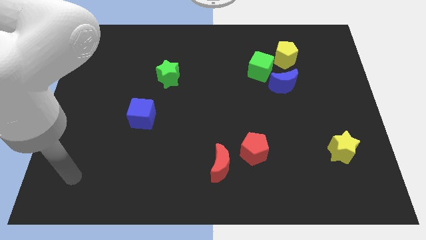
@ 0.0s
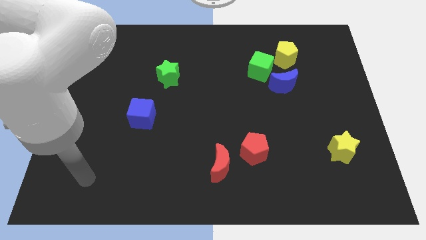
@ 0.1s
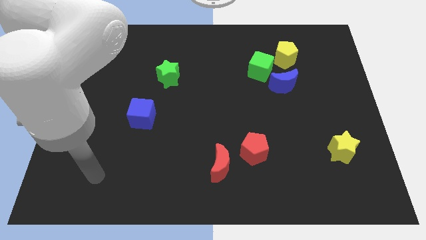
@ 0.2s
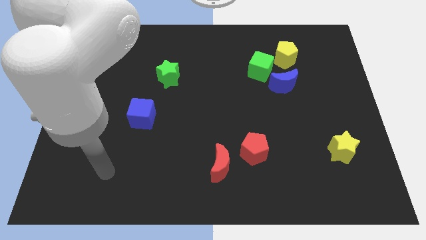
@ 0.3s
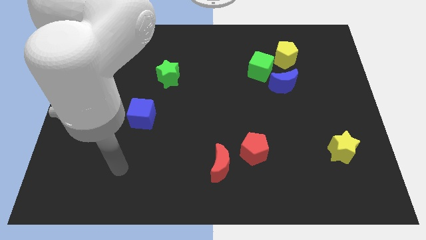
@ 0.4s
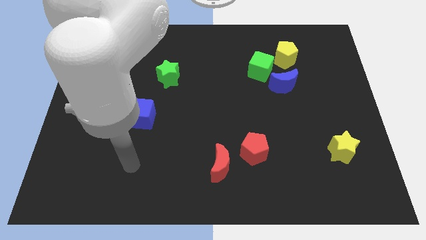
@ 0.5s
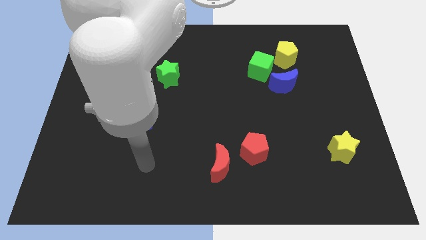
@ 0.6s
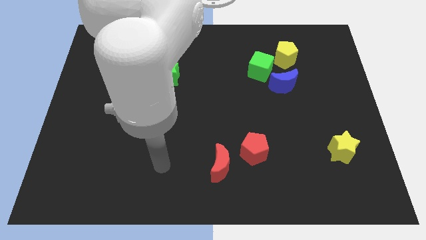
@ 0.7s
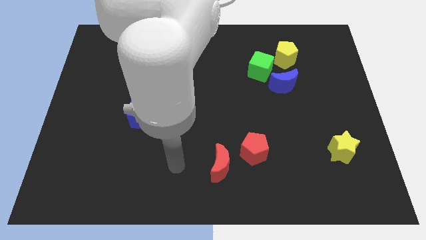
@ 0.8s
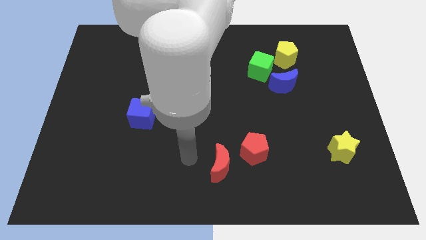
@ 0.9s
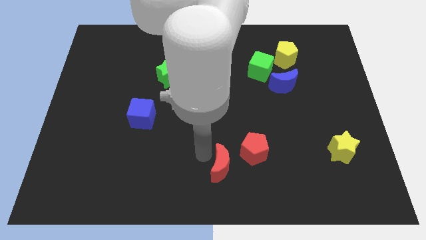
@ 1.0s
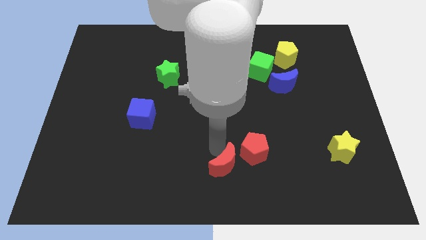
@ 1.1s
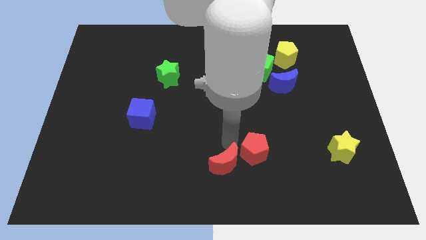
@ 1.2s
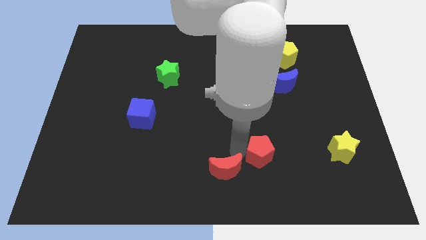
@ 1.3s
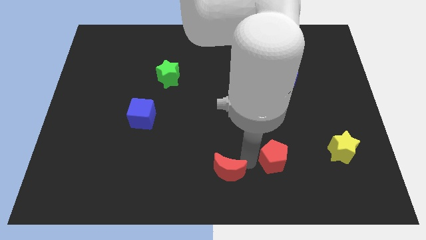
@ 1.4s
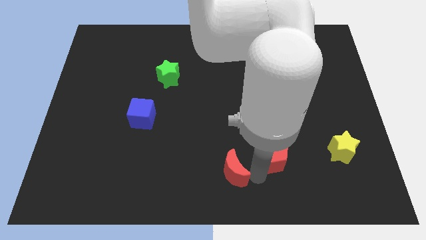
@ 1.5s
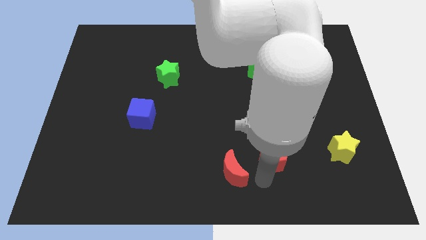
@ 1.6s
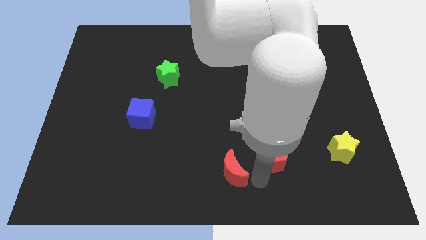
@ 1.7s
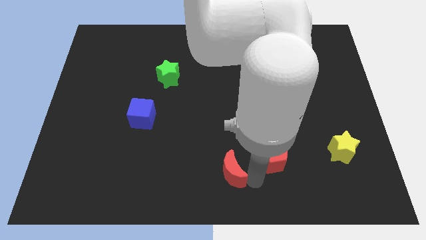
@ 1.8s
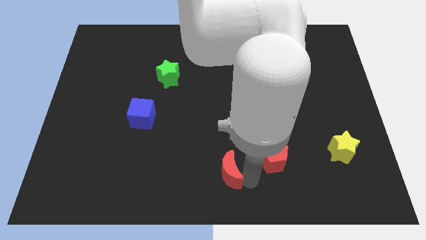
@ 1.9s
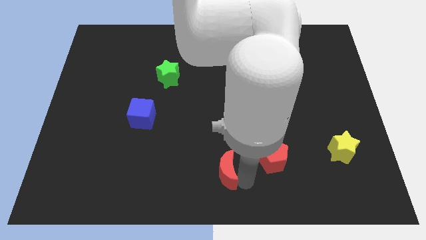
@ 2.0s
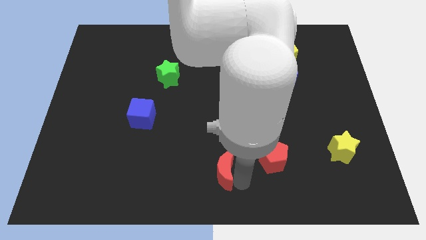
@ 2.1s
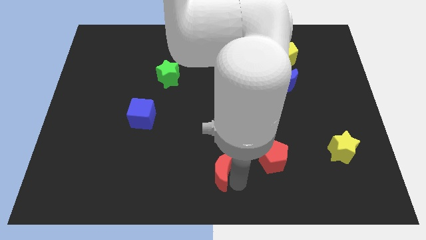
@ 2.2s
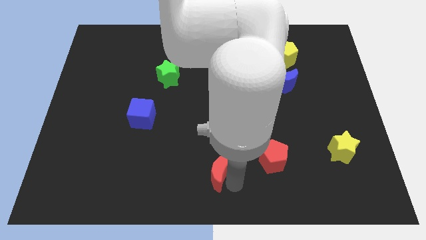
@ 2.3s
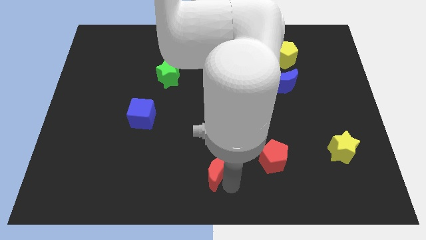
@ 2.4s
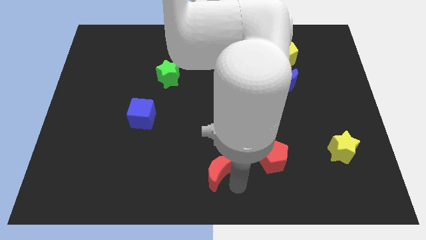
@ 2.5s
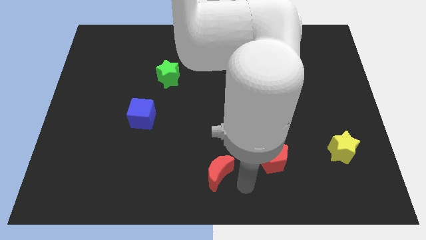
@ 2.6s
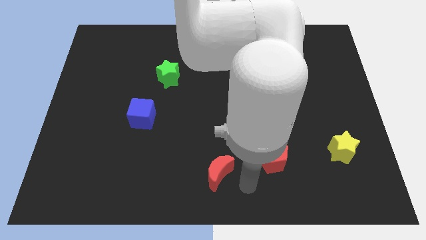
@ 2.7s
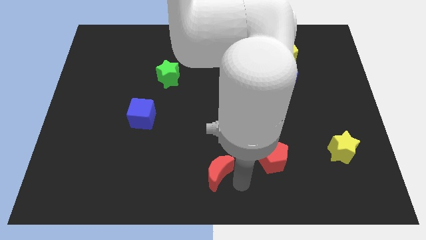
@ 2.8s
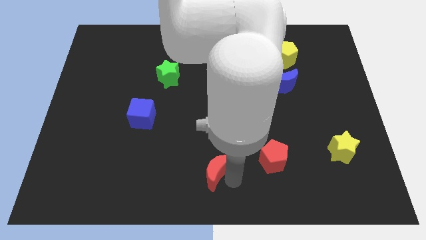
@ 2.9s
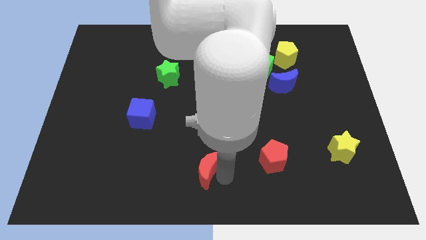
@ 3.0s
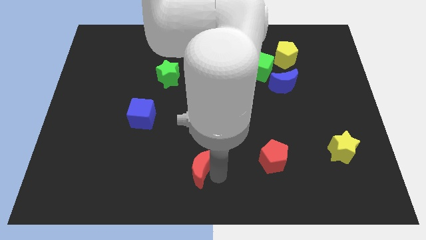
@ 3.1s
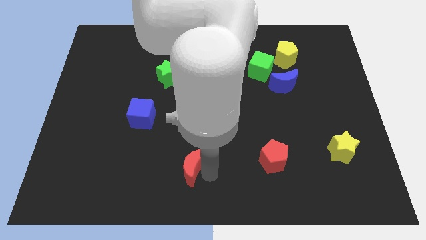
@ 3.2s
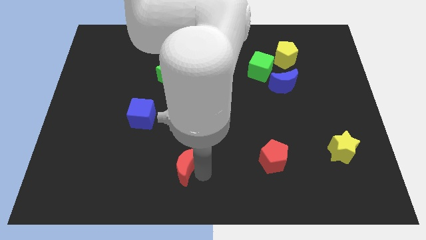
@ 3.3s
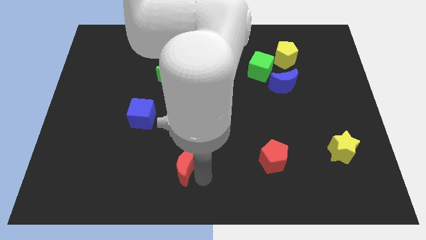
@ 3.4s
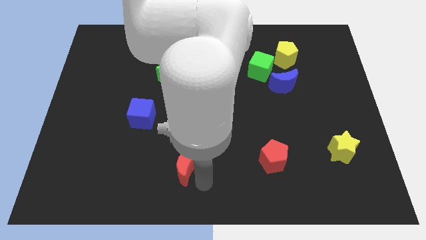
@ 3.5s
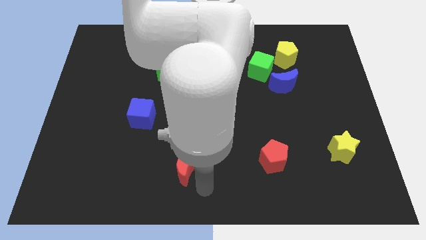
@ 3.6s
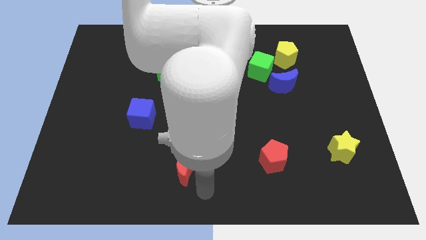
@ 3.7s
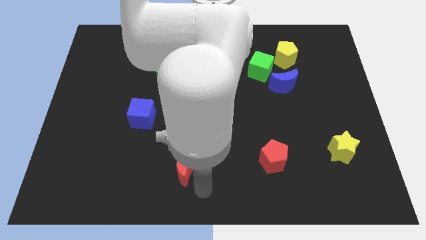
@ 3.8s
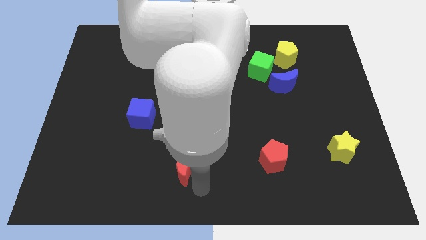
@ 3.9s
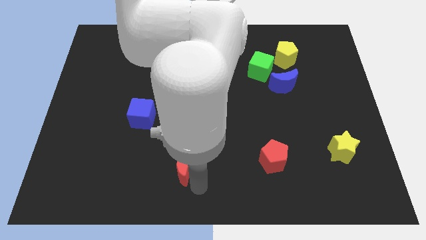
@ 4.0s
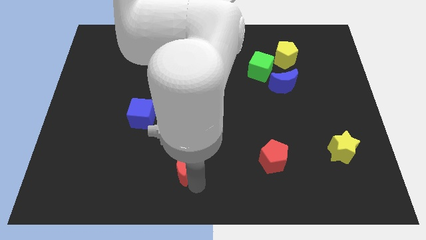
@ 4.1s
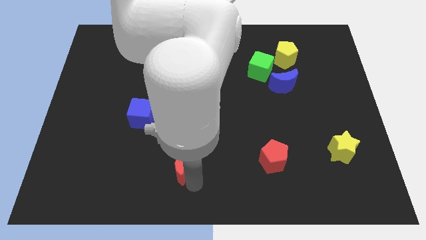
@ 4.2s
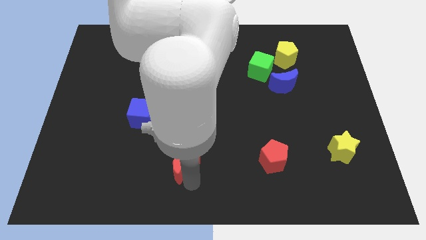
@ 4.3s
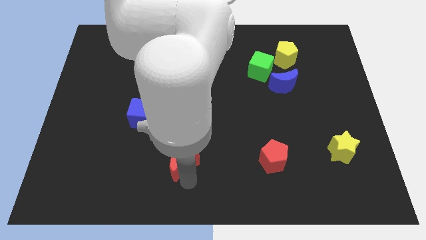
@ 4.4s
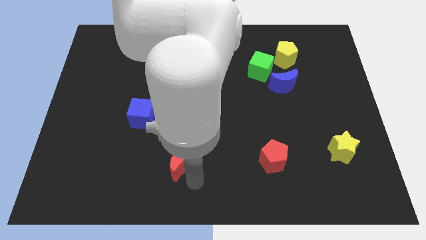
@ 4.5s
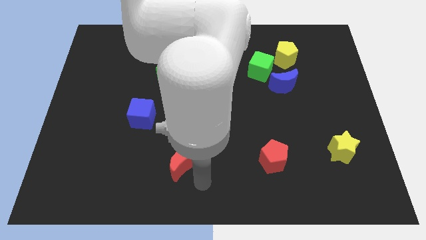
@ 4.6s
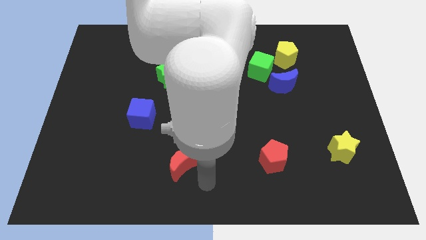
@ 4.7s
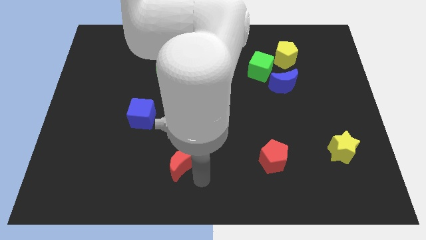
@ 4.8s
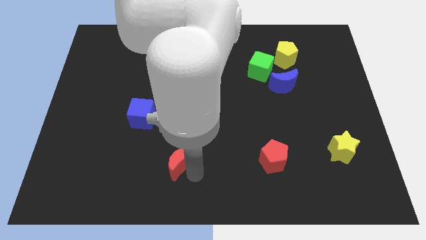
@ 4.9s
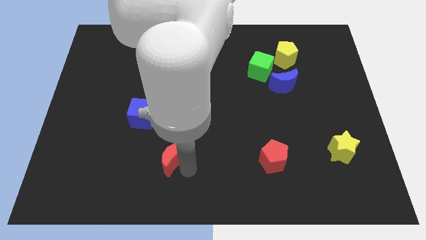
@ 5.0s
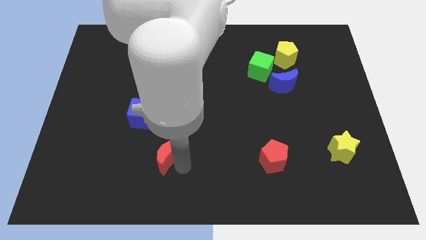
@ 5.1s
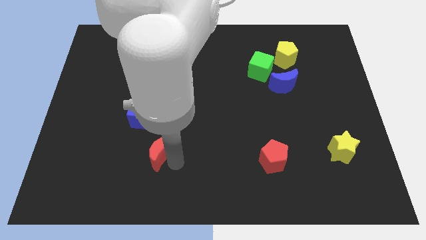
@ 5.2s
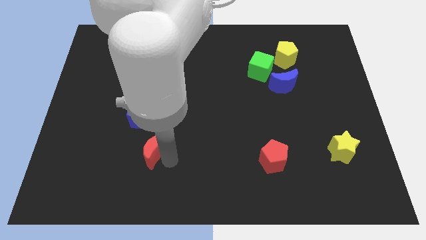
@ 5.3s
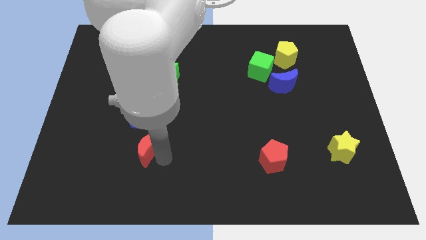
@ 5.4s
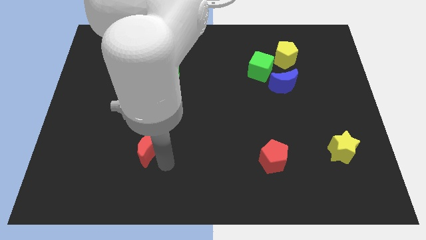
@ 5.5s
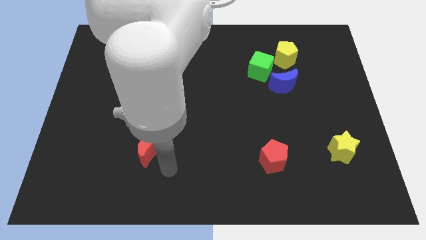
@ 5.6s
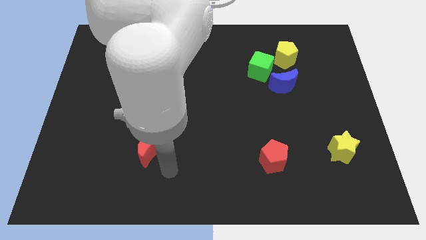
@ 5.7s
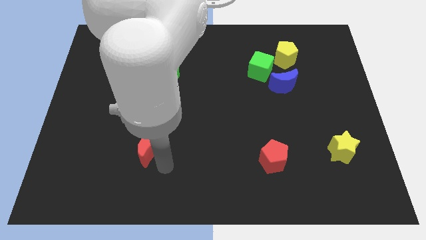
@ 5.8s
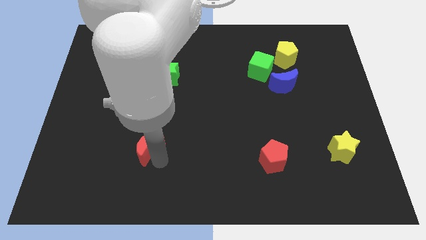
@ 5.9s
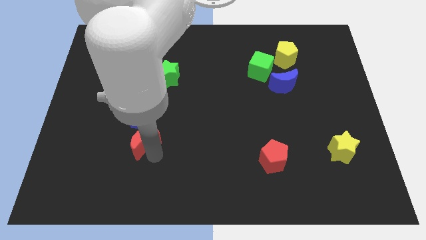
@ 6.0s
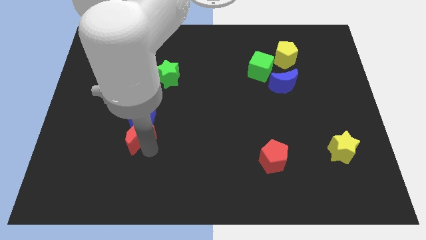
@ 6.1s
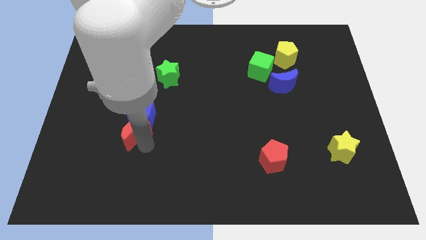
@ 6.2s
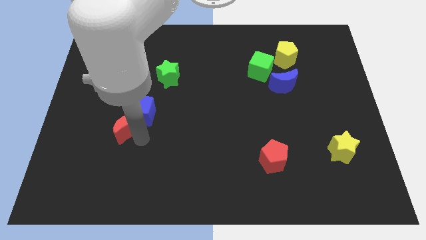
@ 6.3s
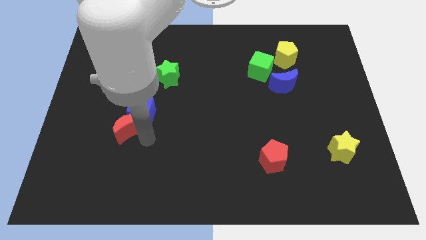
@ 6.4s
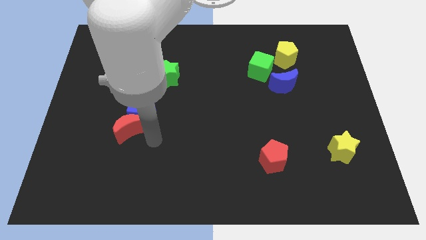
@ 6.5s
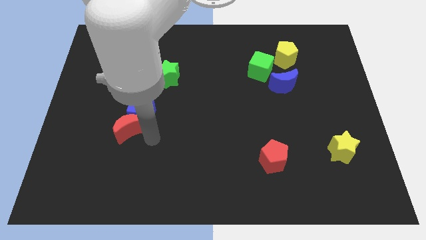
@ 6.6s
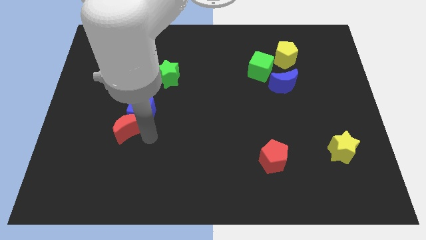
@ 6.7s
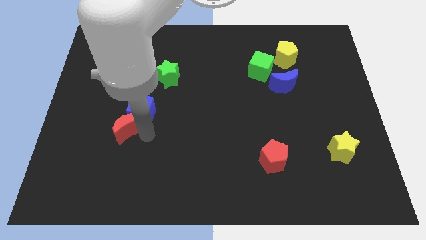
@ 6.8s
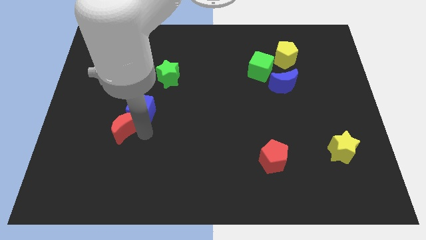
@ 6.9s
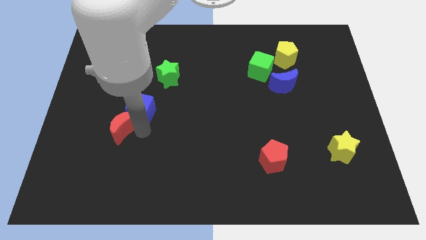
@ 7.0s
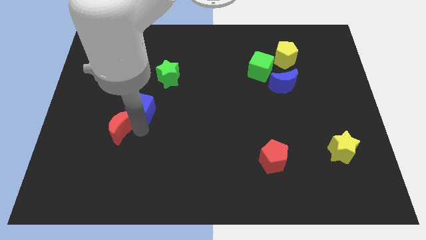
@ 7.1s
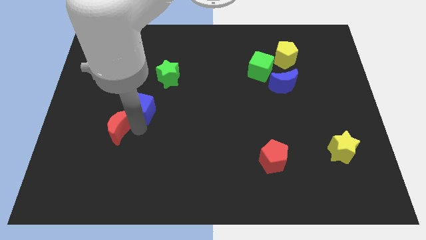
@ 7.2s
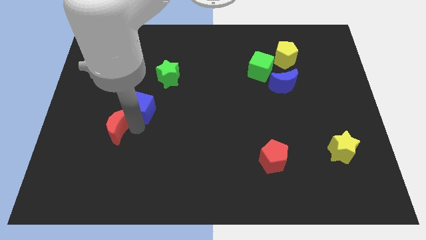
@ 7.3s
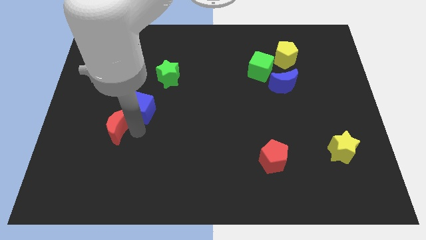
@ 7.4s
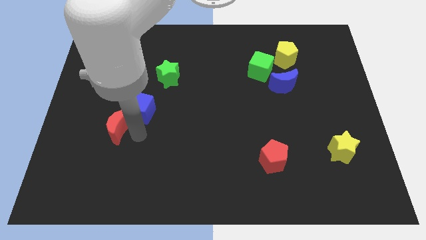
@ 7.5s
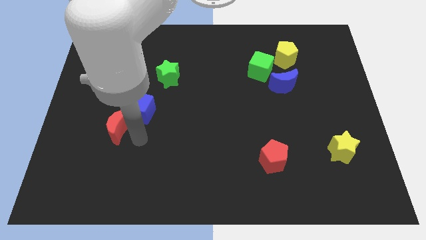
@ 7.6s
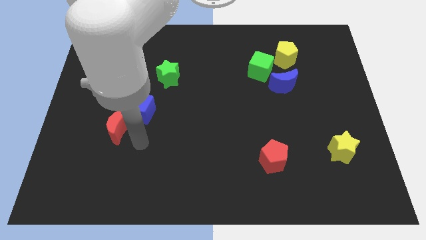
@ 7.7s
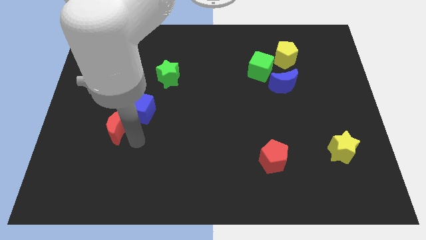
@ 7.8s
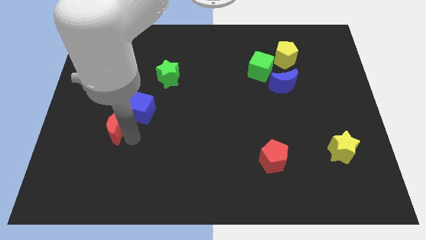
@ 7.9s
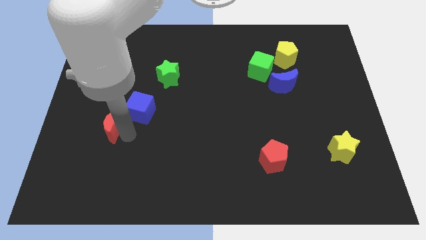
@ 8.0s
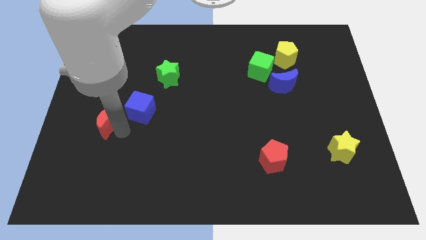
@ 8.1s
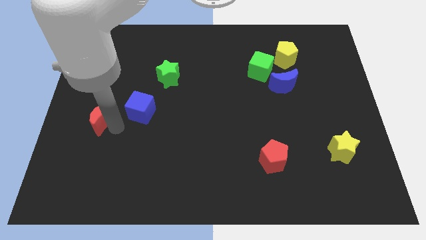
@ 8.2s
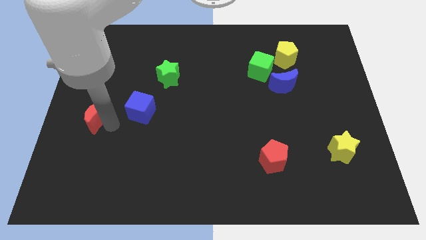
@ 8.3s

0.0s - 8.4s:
move the red moon to the center left
